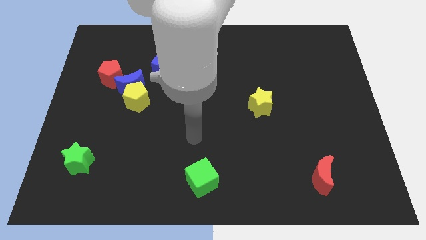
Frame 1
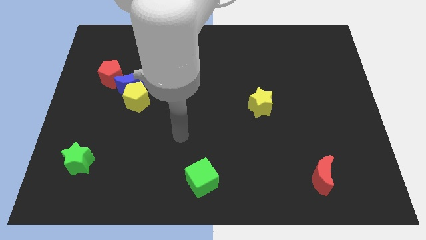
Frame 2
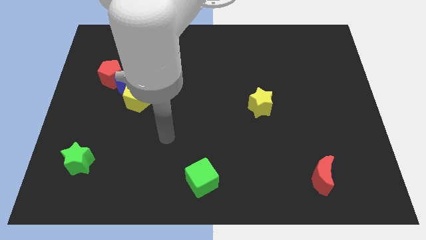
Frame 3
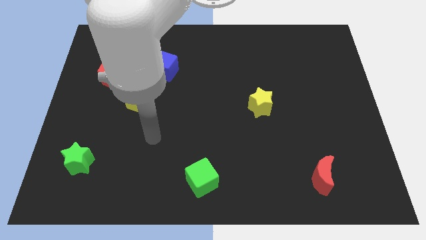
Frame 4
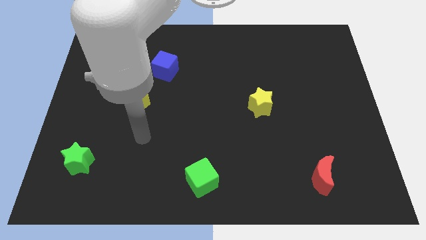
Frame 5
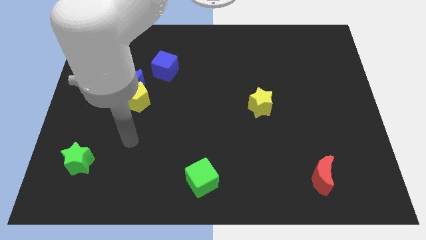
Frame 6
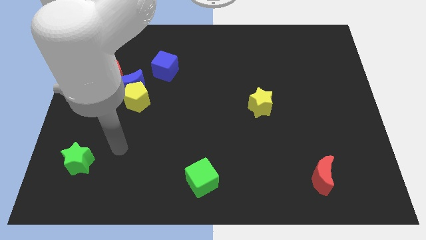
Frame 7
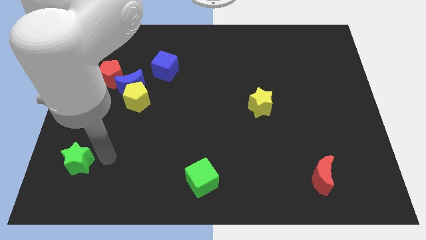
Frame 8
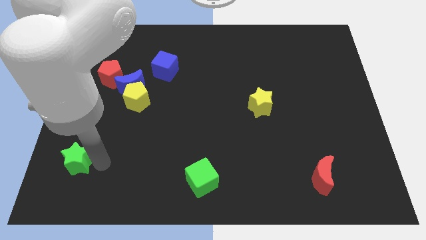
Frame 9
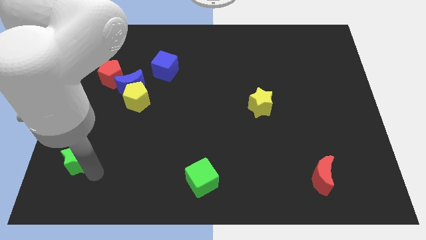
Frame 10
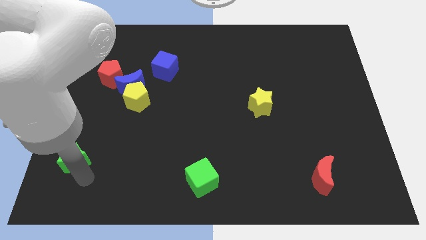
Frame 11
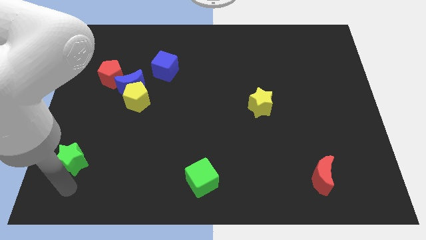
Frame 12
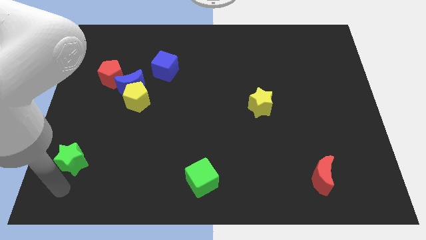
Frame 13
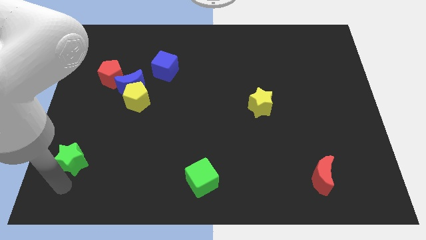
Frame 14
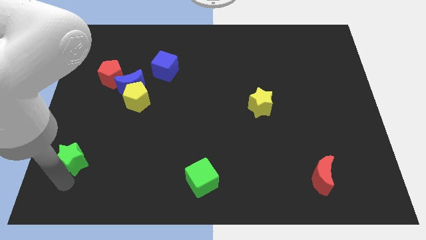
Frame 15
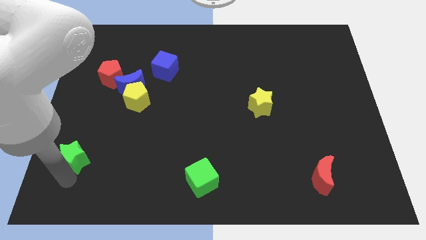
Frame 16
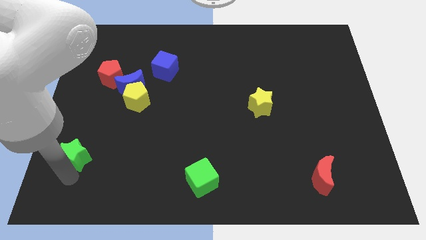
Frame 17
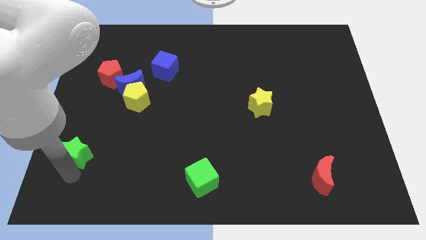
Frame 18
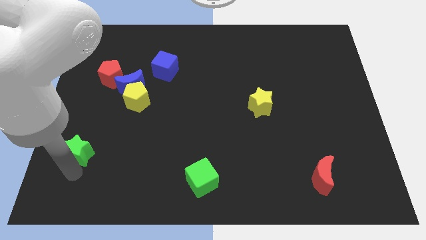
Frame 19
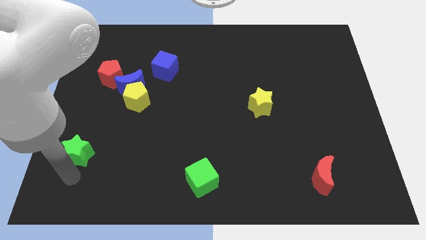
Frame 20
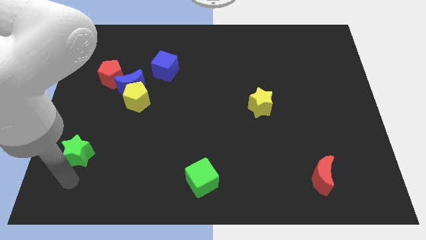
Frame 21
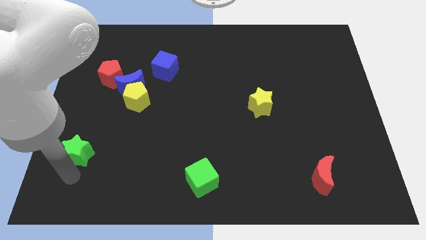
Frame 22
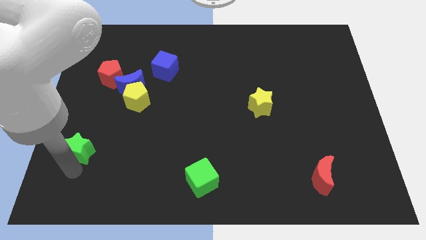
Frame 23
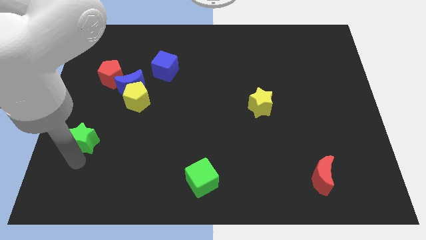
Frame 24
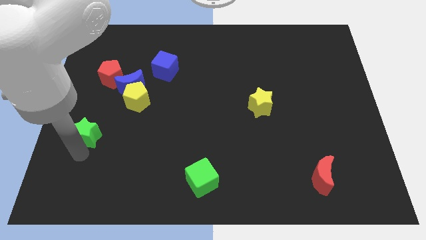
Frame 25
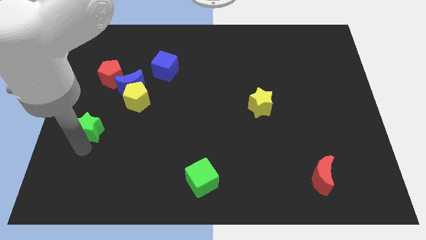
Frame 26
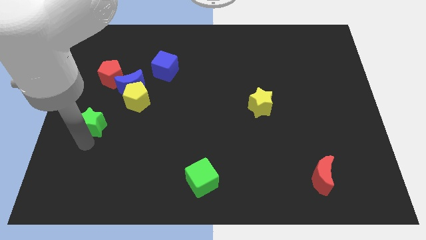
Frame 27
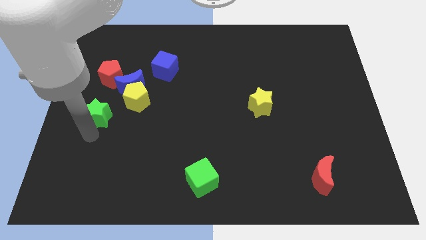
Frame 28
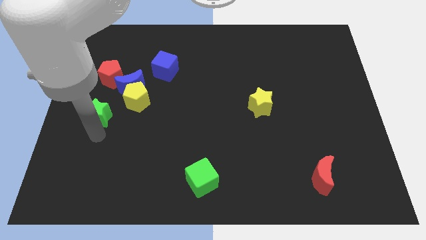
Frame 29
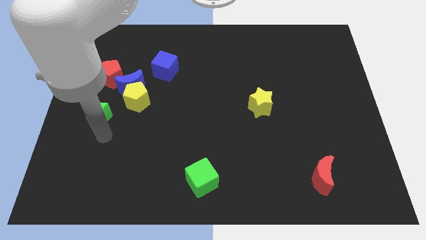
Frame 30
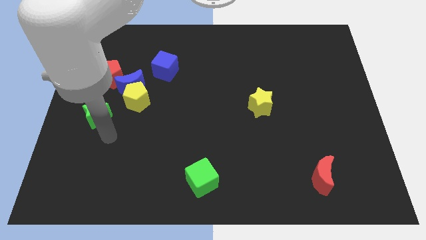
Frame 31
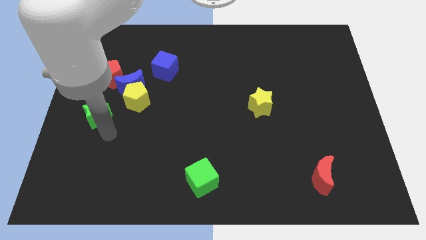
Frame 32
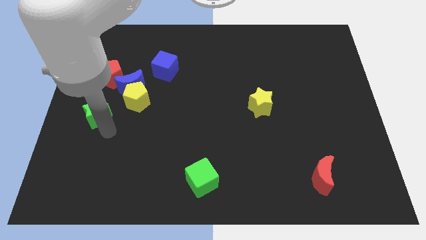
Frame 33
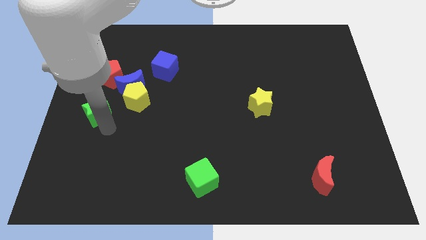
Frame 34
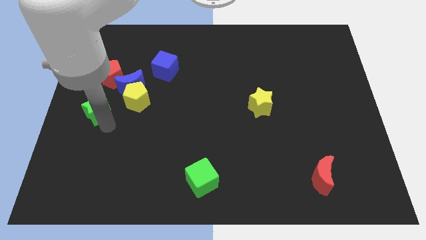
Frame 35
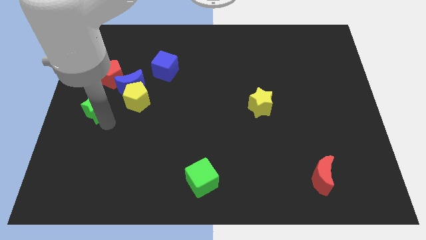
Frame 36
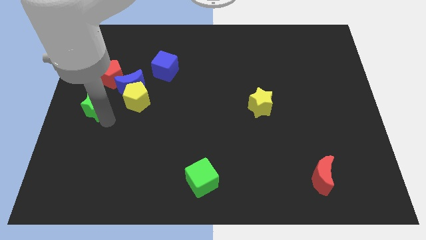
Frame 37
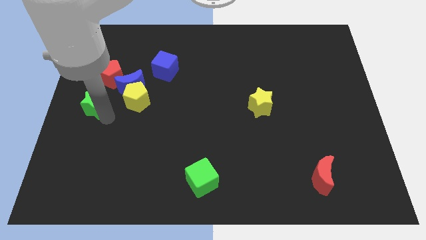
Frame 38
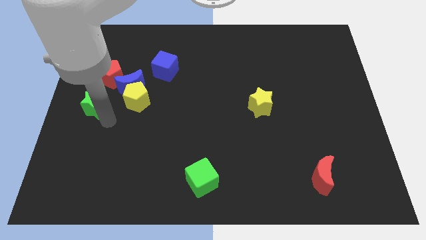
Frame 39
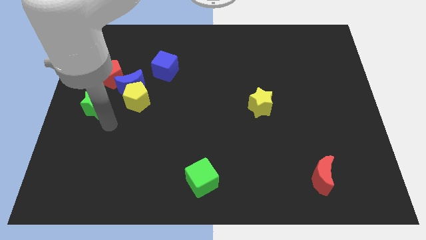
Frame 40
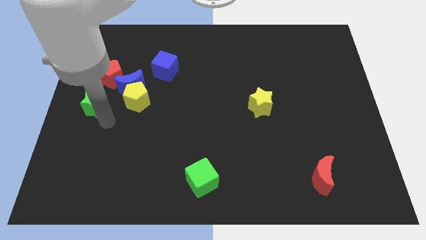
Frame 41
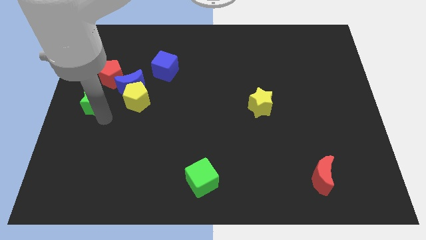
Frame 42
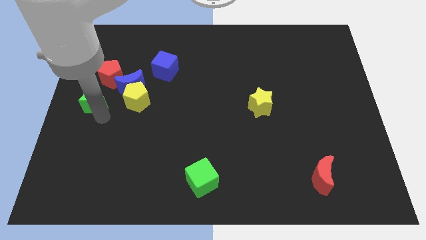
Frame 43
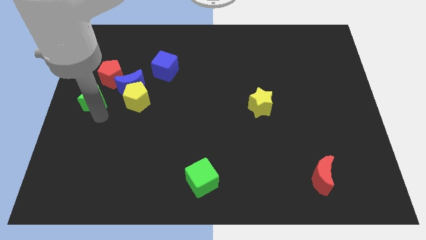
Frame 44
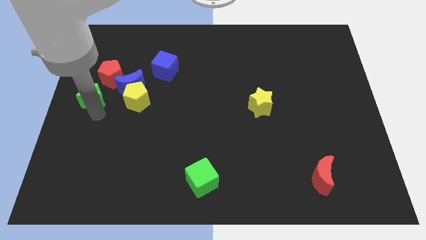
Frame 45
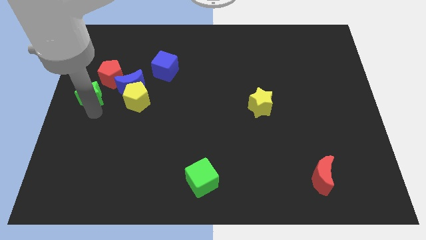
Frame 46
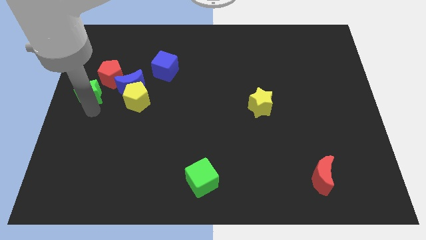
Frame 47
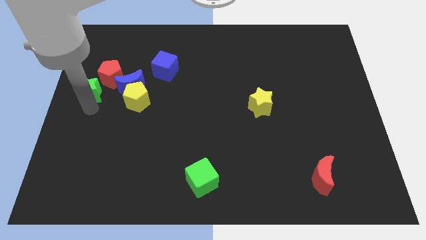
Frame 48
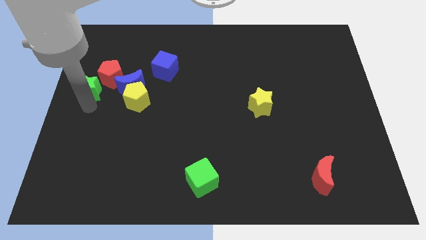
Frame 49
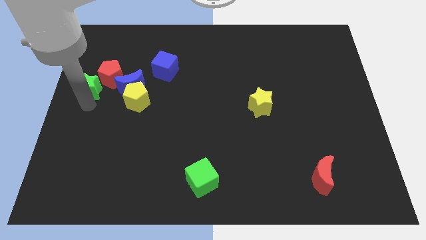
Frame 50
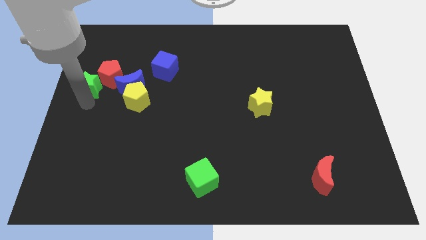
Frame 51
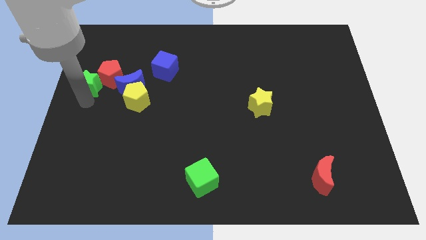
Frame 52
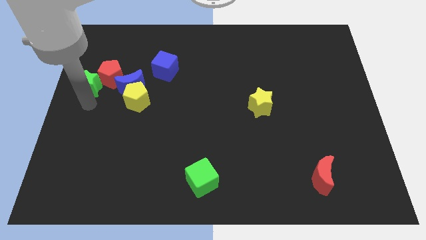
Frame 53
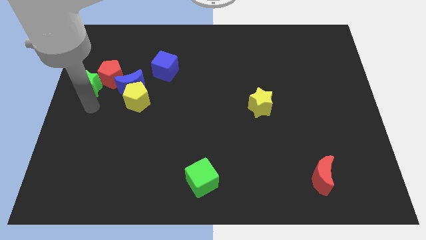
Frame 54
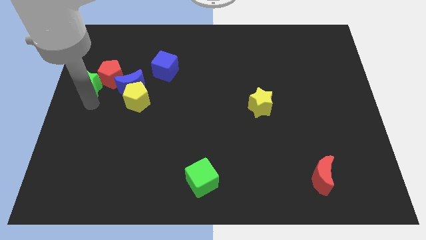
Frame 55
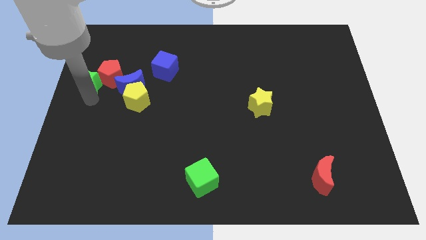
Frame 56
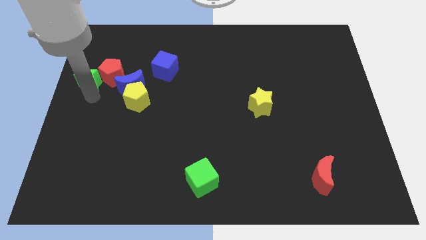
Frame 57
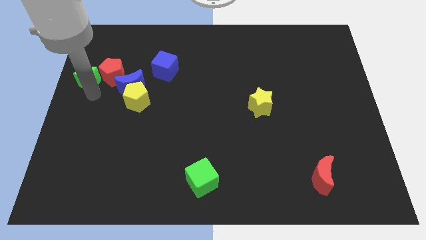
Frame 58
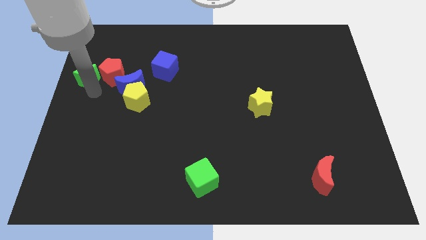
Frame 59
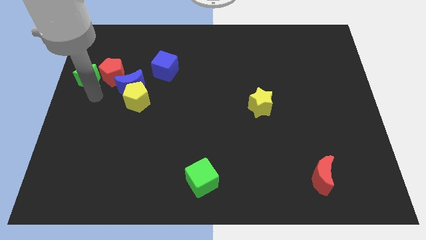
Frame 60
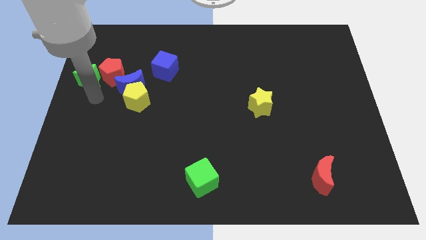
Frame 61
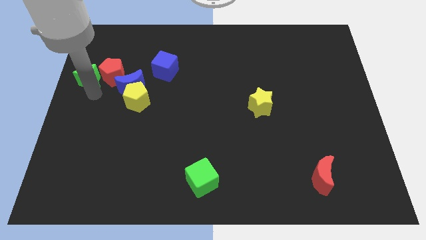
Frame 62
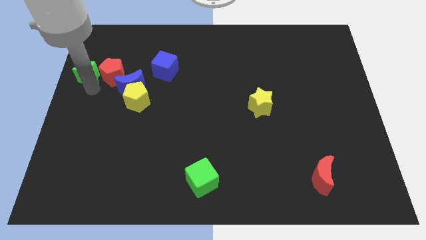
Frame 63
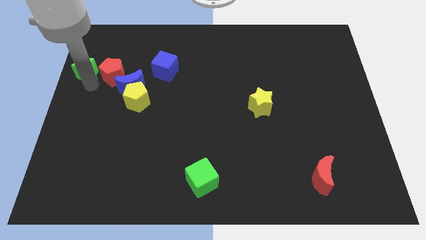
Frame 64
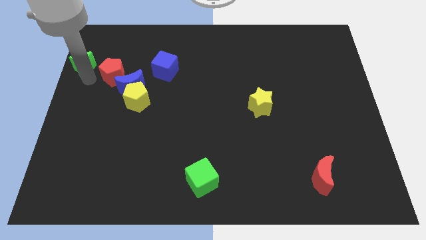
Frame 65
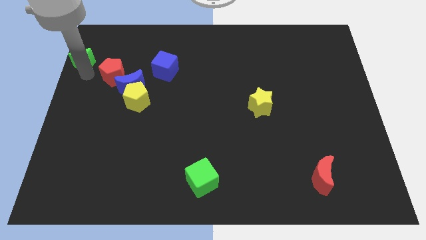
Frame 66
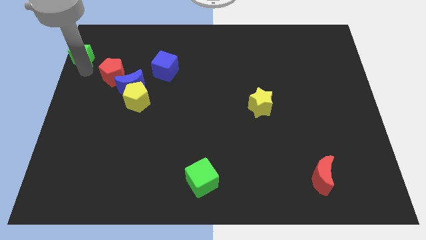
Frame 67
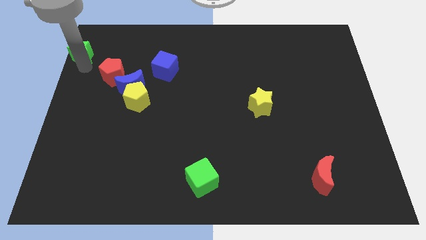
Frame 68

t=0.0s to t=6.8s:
put the green star to the top left
